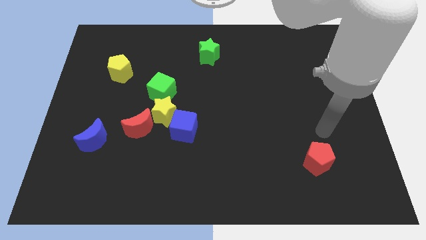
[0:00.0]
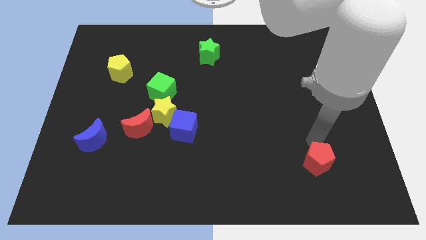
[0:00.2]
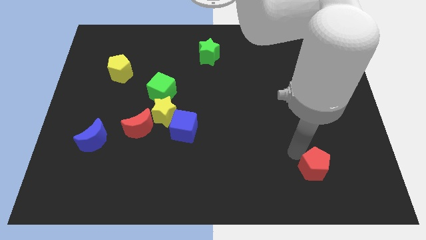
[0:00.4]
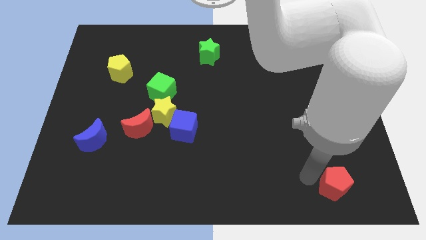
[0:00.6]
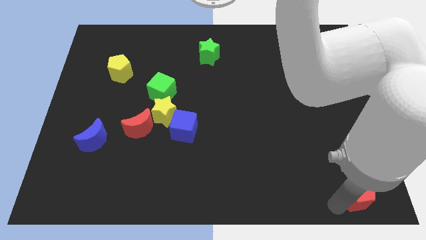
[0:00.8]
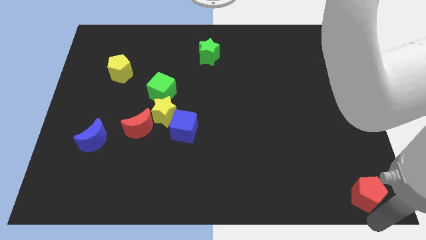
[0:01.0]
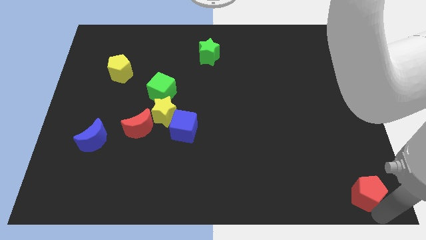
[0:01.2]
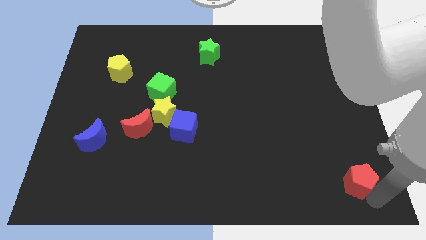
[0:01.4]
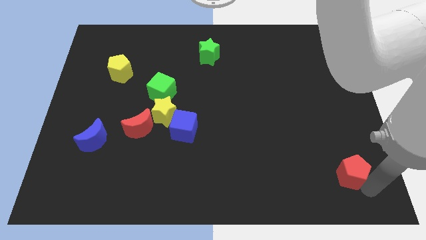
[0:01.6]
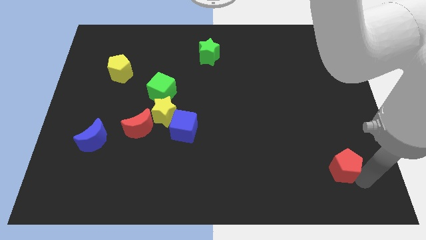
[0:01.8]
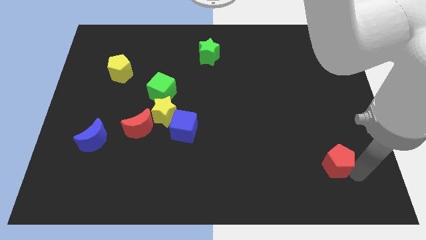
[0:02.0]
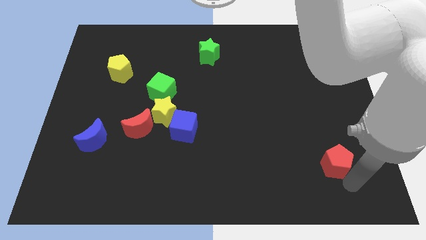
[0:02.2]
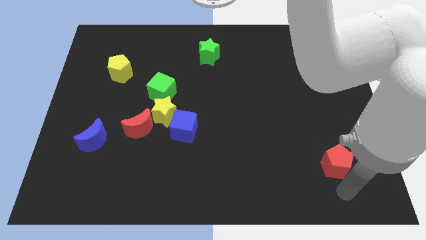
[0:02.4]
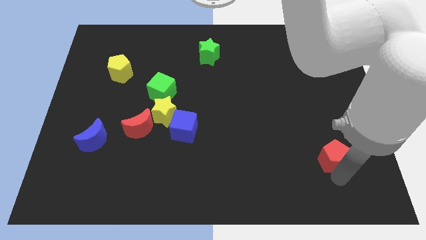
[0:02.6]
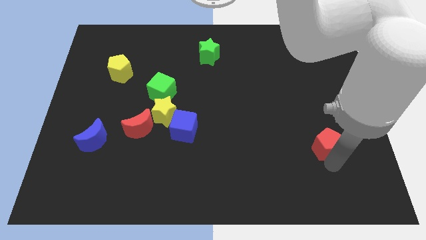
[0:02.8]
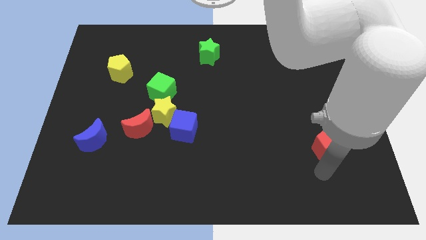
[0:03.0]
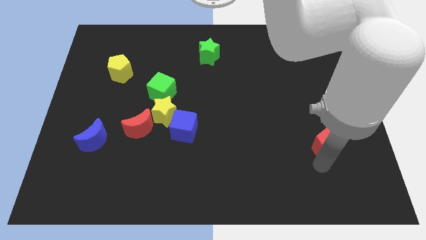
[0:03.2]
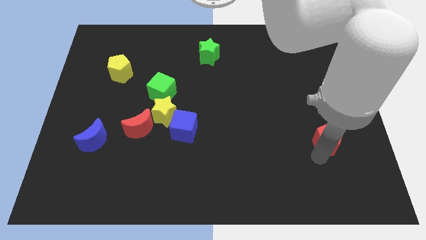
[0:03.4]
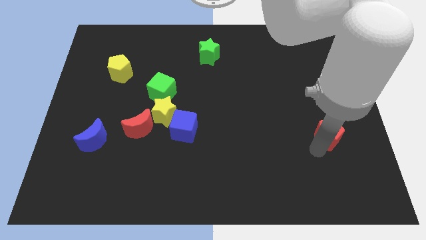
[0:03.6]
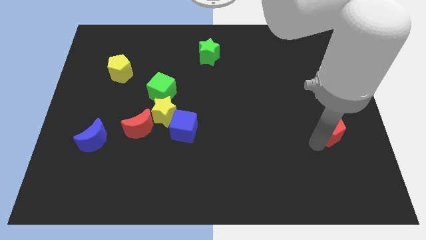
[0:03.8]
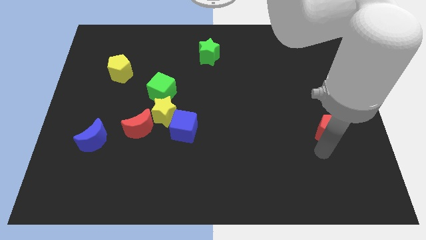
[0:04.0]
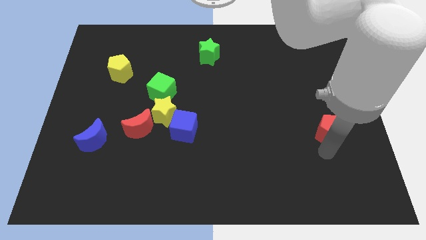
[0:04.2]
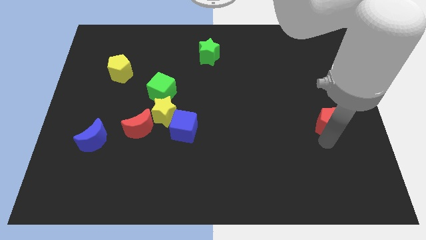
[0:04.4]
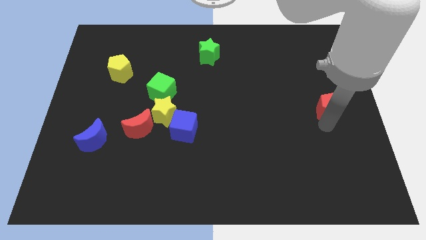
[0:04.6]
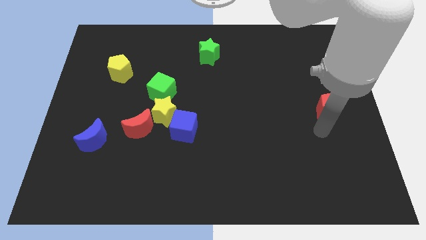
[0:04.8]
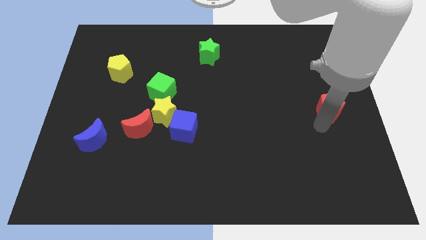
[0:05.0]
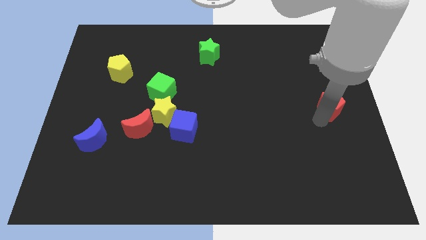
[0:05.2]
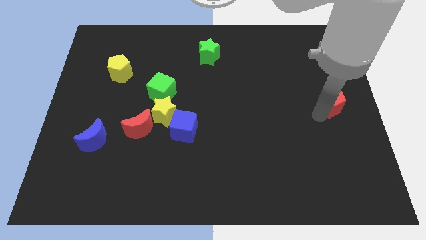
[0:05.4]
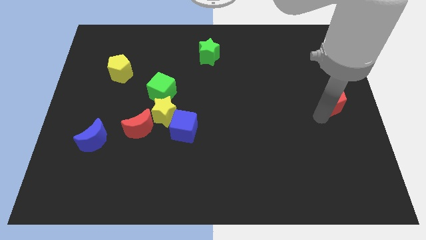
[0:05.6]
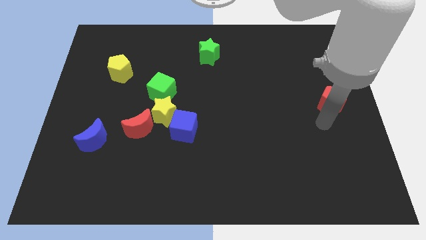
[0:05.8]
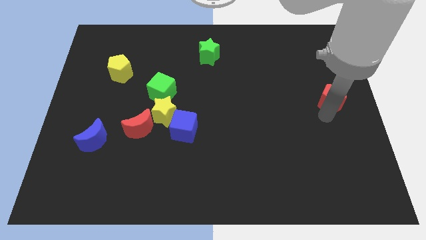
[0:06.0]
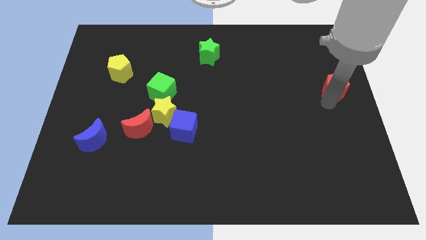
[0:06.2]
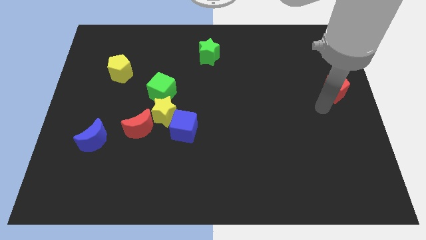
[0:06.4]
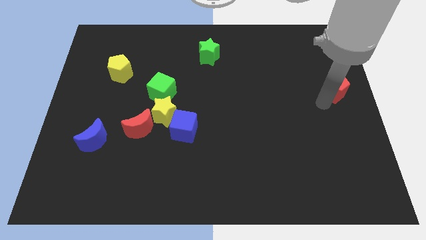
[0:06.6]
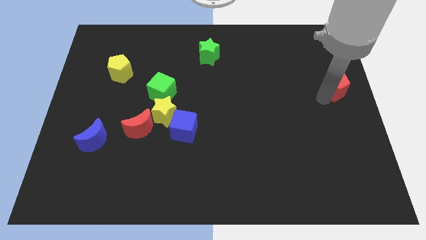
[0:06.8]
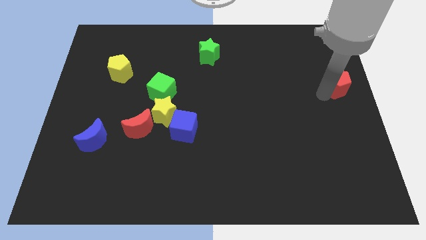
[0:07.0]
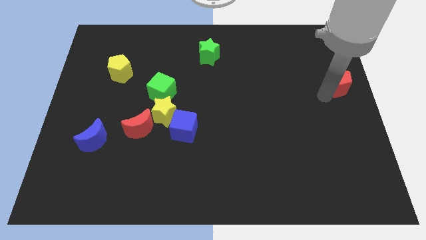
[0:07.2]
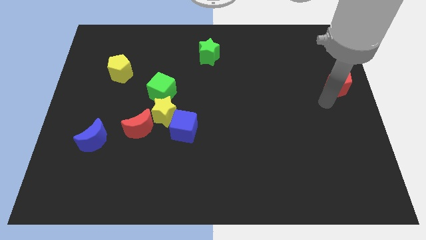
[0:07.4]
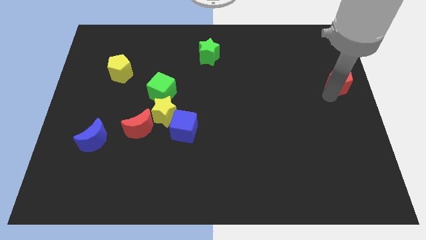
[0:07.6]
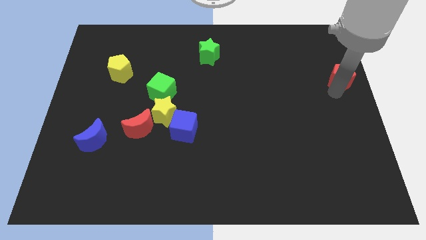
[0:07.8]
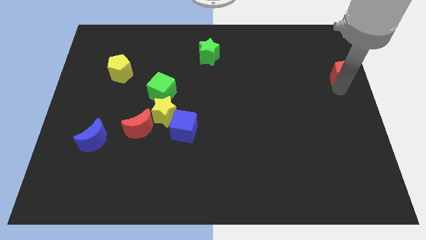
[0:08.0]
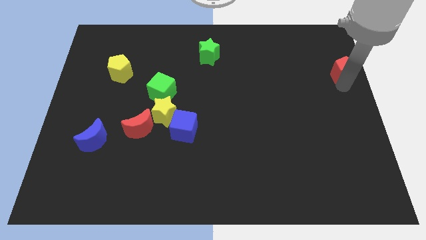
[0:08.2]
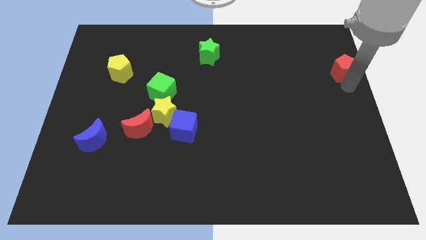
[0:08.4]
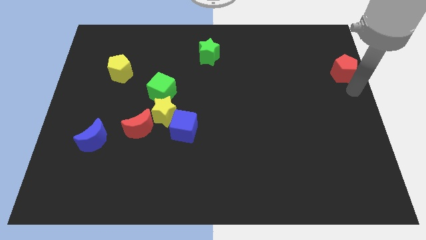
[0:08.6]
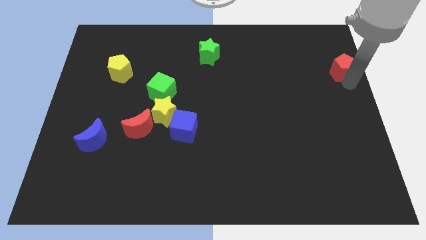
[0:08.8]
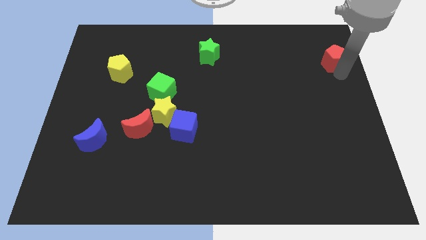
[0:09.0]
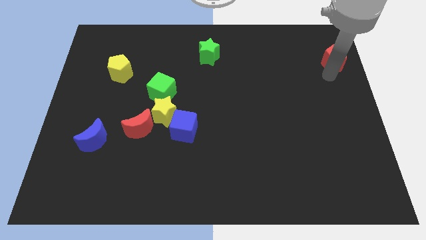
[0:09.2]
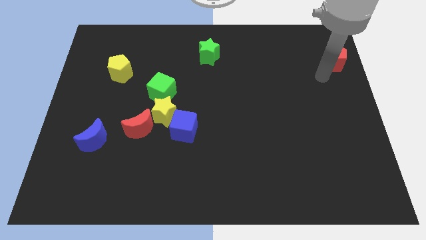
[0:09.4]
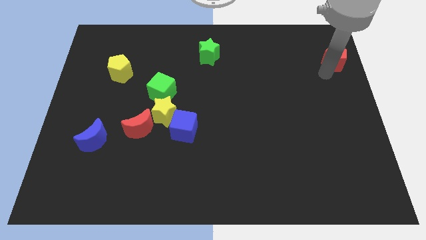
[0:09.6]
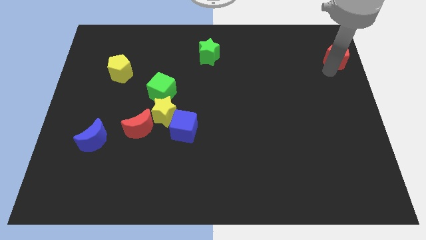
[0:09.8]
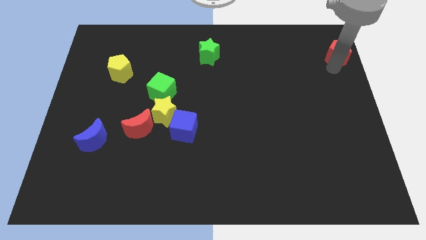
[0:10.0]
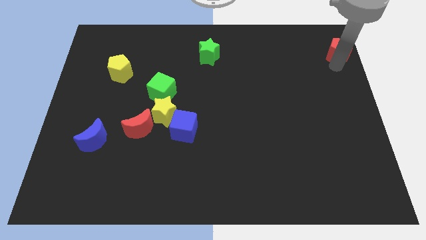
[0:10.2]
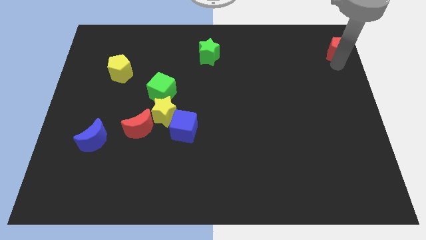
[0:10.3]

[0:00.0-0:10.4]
move the red pentagon to the top right corner

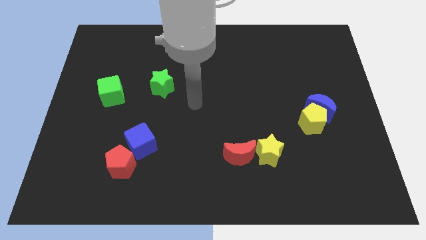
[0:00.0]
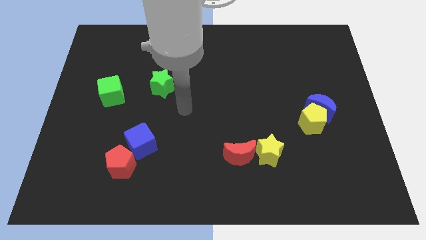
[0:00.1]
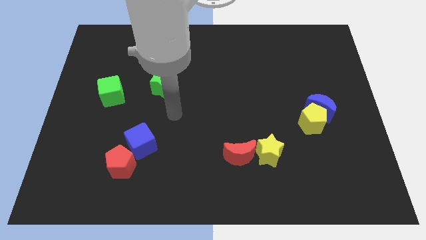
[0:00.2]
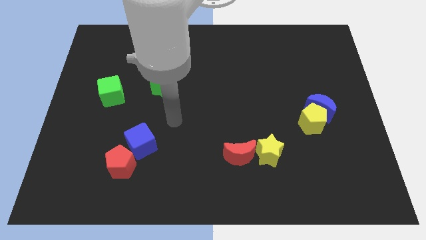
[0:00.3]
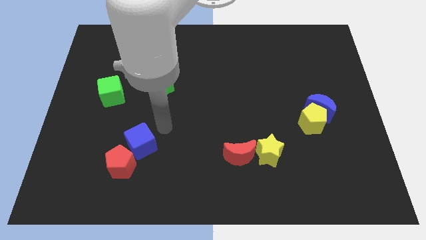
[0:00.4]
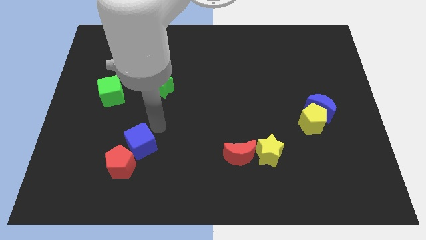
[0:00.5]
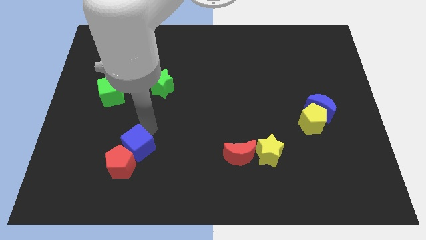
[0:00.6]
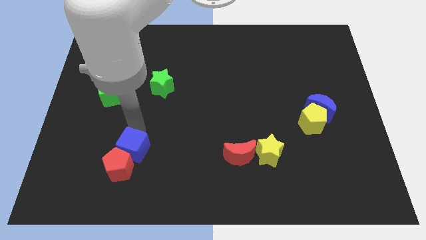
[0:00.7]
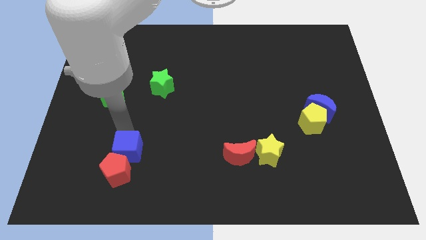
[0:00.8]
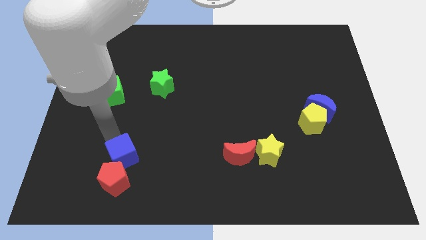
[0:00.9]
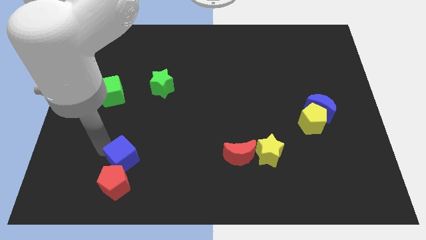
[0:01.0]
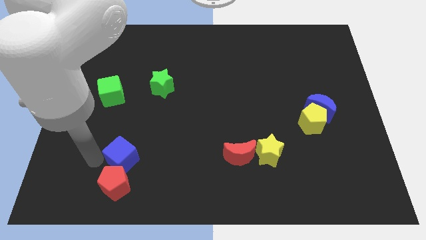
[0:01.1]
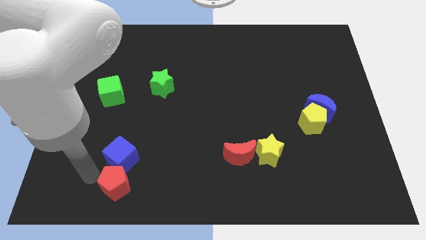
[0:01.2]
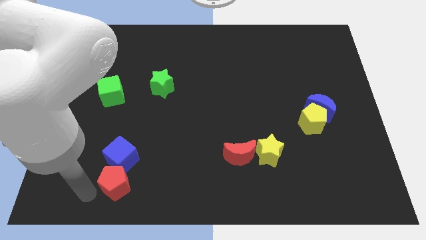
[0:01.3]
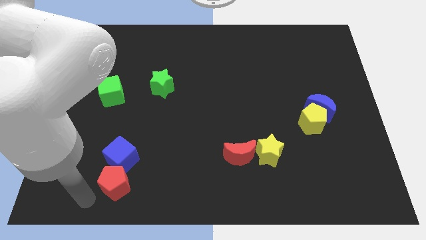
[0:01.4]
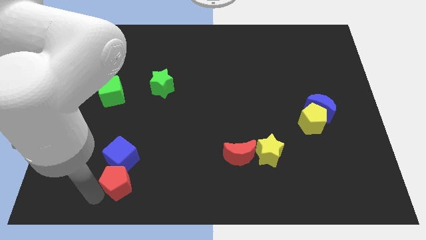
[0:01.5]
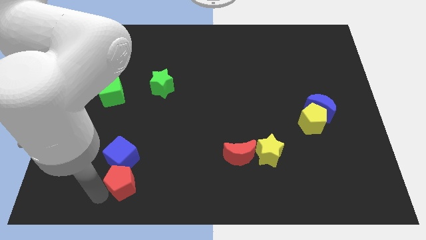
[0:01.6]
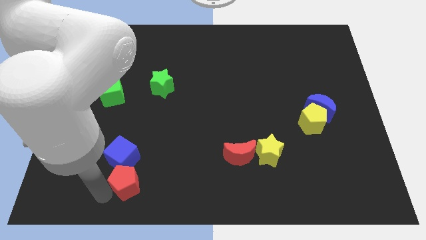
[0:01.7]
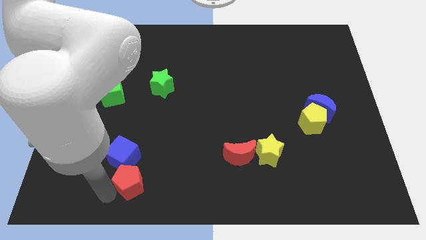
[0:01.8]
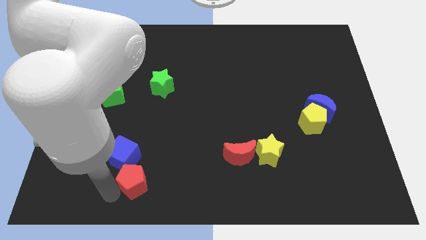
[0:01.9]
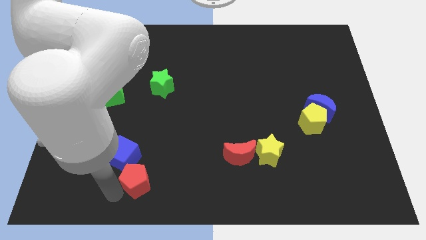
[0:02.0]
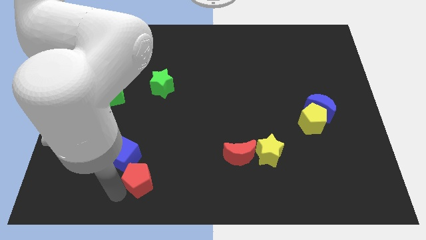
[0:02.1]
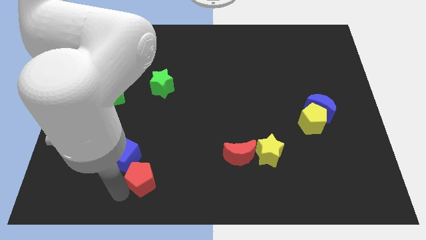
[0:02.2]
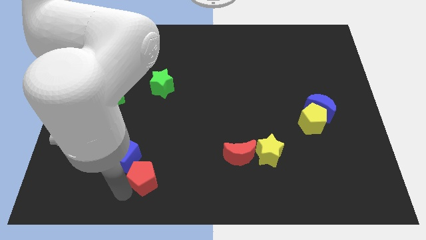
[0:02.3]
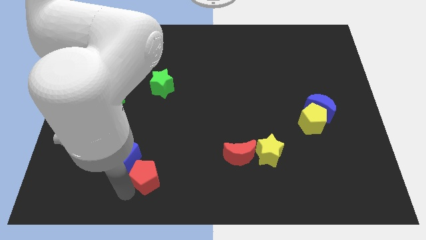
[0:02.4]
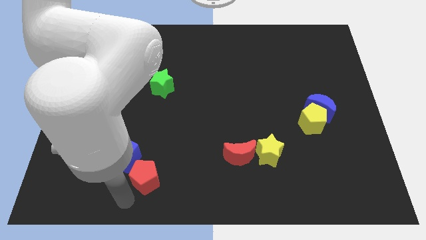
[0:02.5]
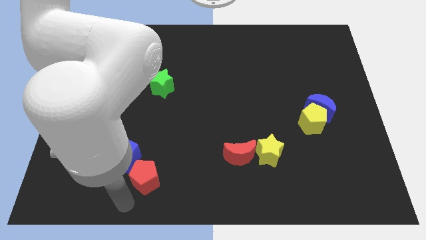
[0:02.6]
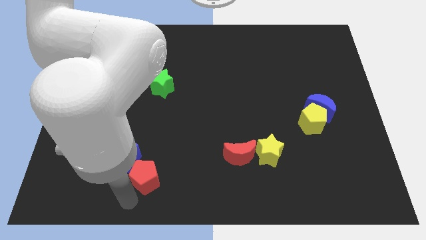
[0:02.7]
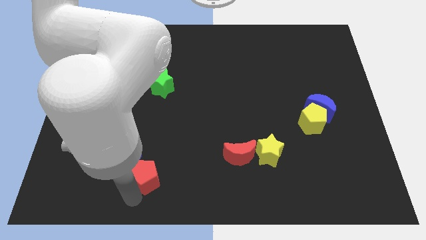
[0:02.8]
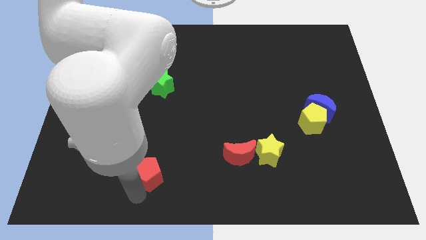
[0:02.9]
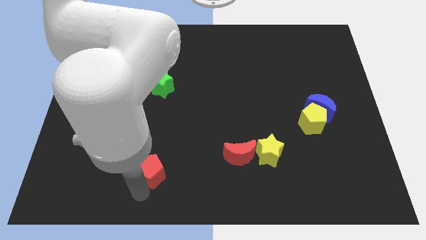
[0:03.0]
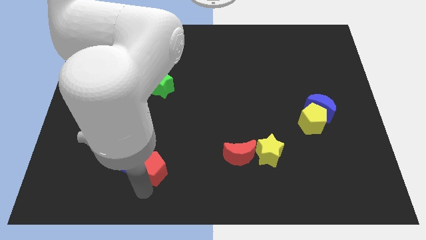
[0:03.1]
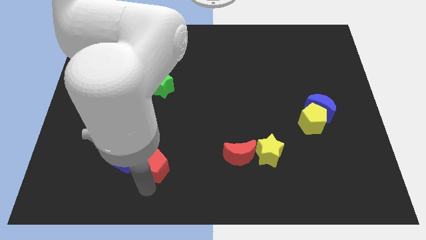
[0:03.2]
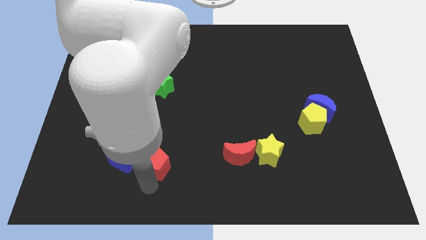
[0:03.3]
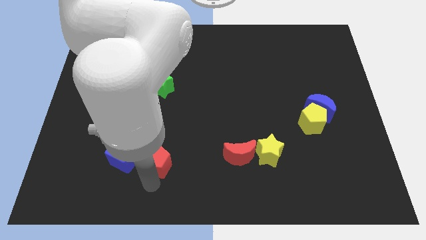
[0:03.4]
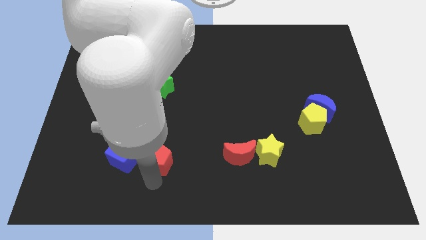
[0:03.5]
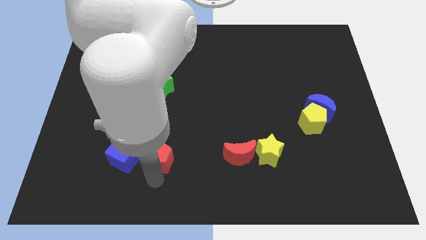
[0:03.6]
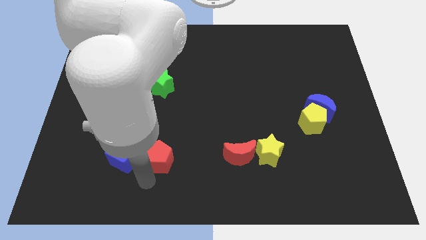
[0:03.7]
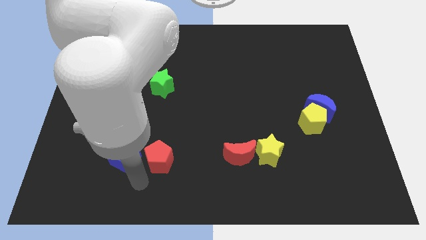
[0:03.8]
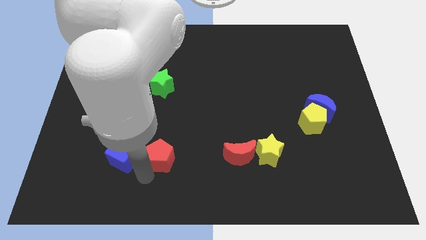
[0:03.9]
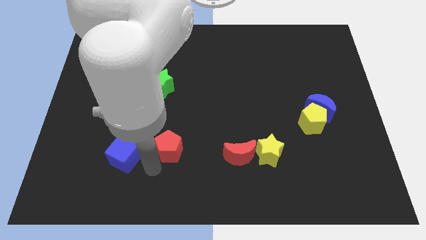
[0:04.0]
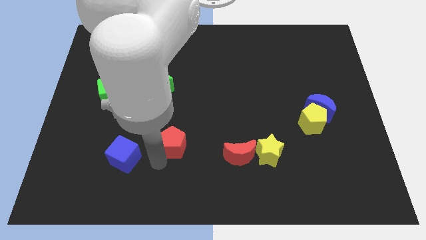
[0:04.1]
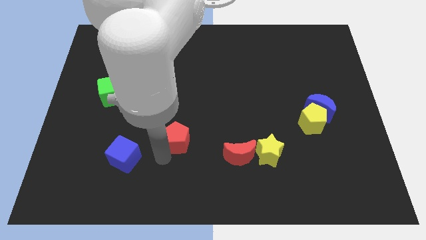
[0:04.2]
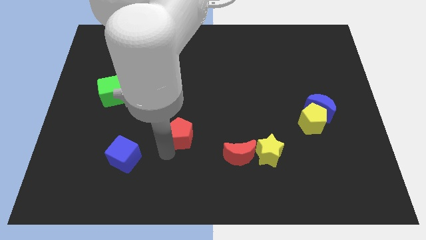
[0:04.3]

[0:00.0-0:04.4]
put the red pentagon to the center
